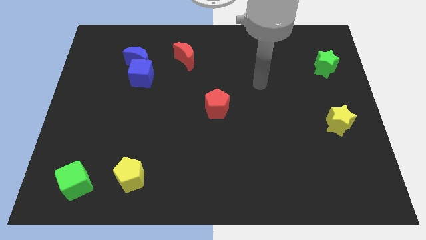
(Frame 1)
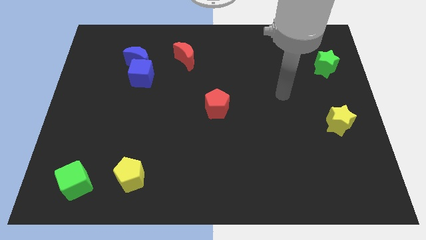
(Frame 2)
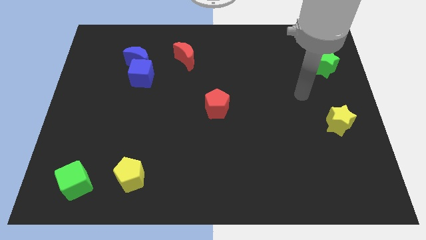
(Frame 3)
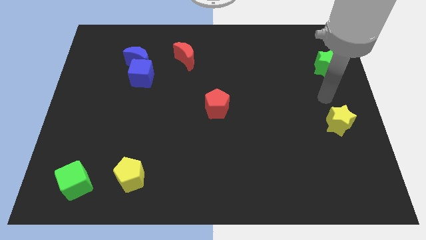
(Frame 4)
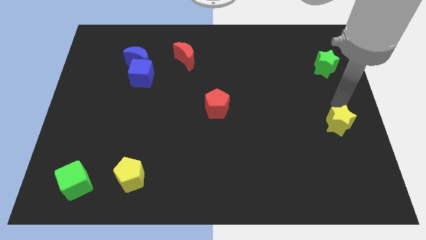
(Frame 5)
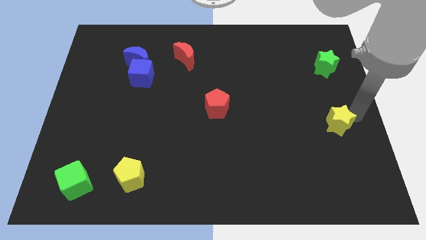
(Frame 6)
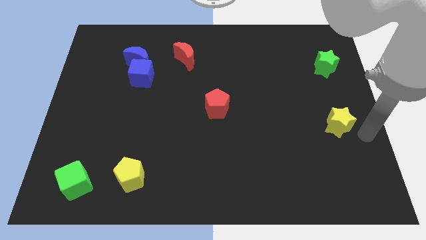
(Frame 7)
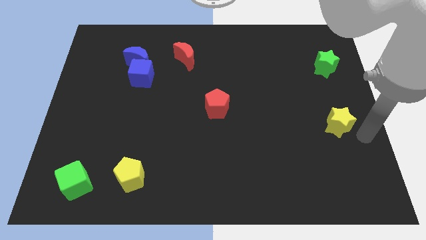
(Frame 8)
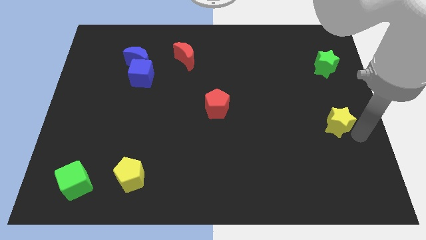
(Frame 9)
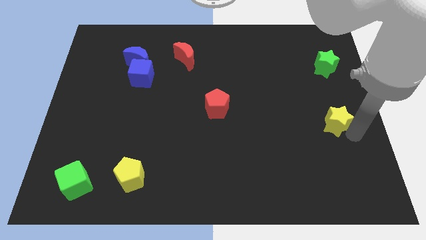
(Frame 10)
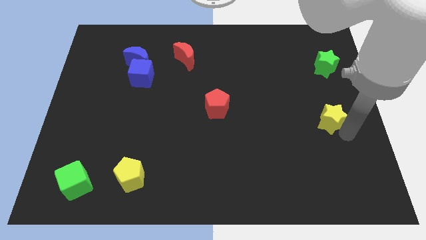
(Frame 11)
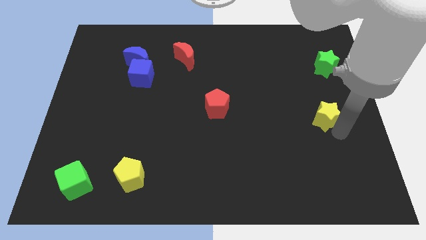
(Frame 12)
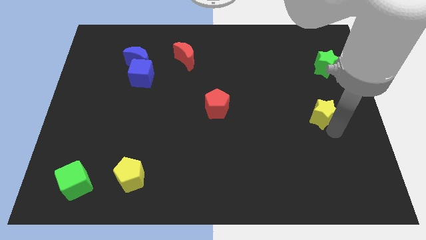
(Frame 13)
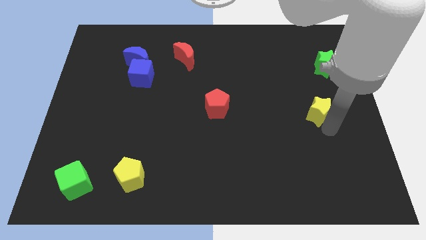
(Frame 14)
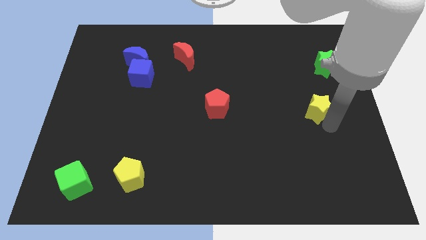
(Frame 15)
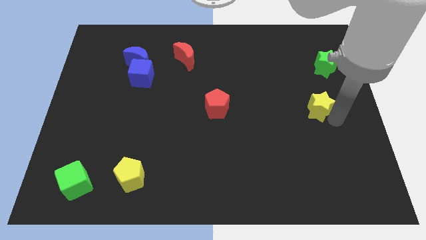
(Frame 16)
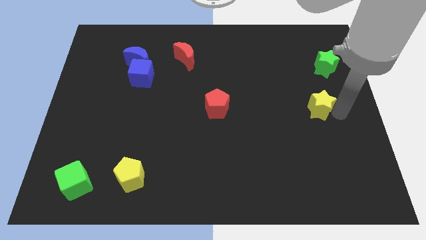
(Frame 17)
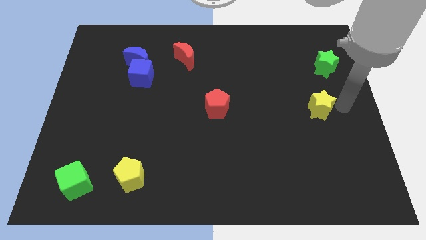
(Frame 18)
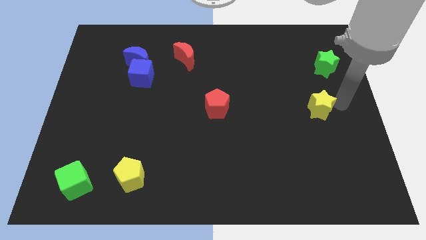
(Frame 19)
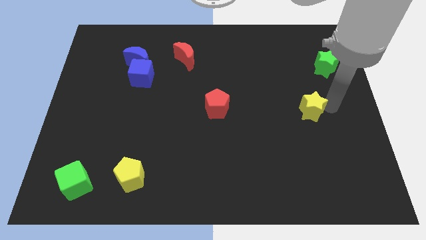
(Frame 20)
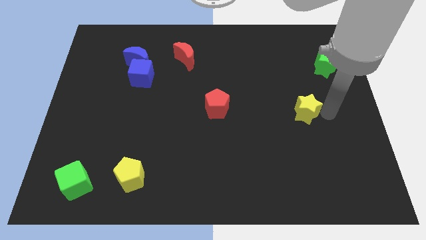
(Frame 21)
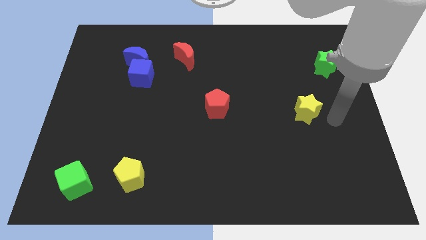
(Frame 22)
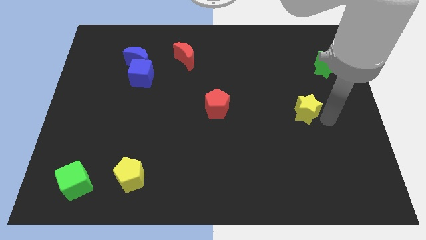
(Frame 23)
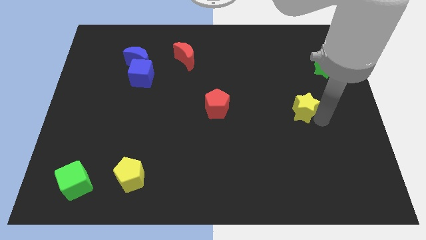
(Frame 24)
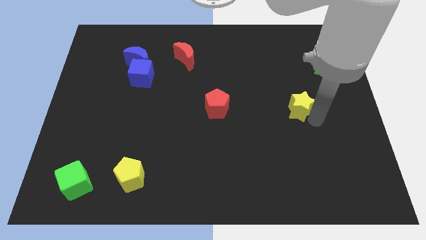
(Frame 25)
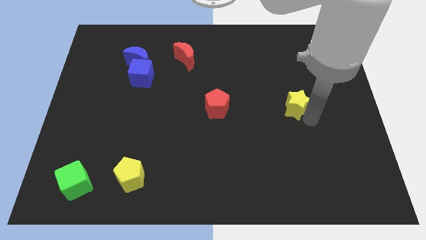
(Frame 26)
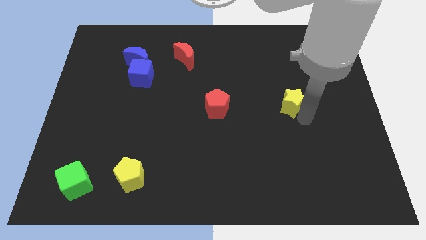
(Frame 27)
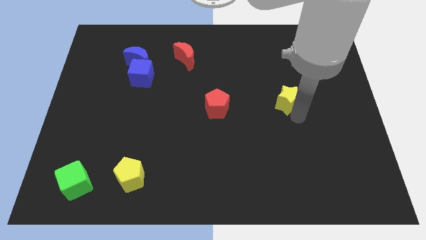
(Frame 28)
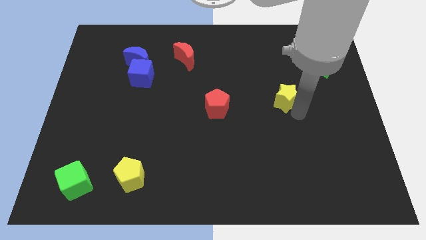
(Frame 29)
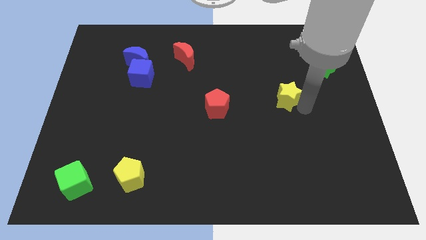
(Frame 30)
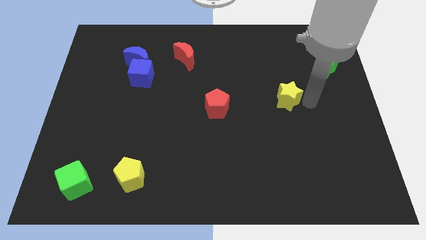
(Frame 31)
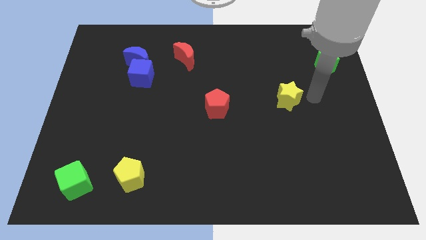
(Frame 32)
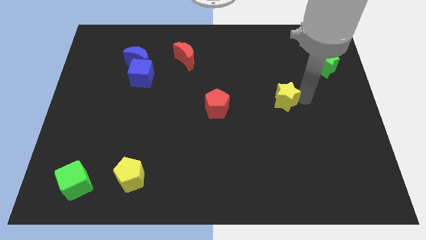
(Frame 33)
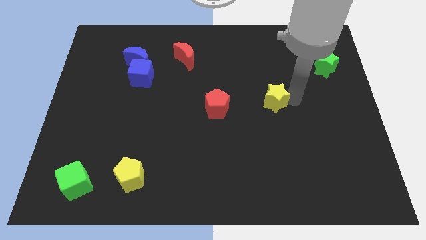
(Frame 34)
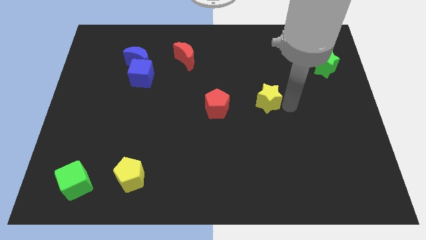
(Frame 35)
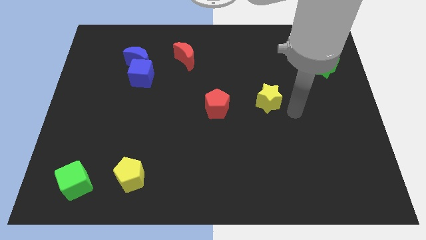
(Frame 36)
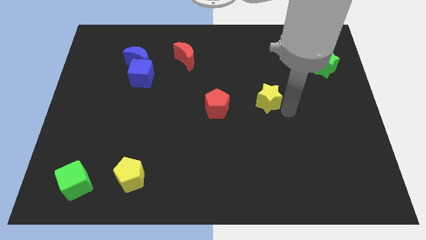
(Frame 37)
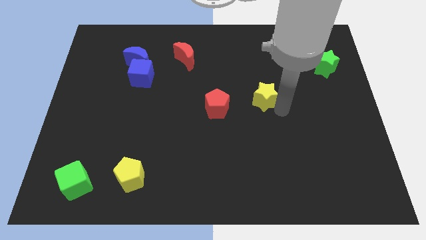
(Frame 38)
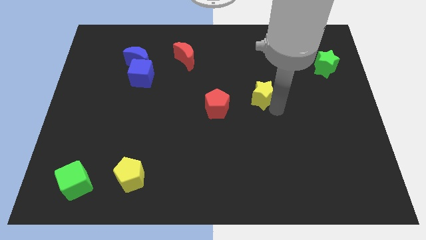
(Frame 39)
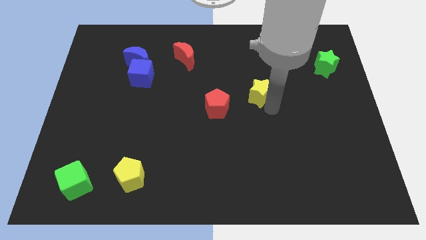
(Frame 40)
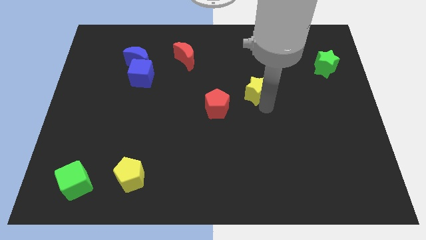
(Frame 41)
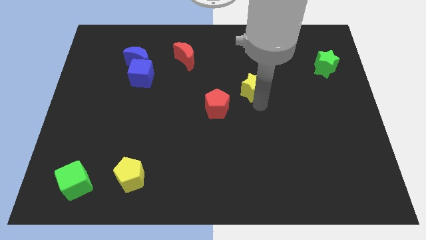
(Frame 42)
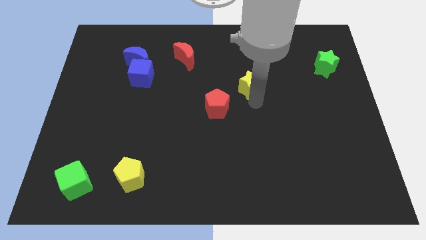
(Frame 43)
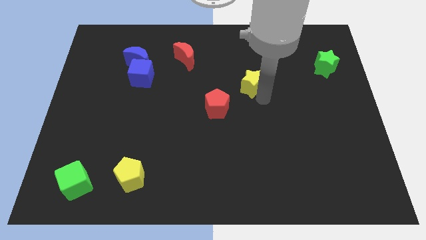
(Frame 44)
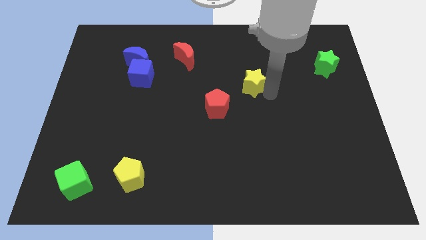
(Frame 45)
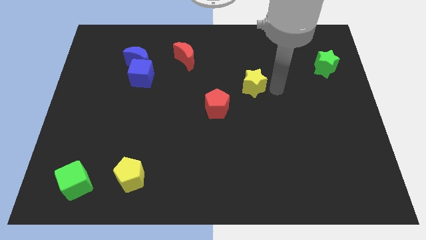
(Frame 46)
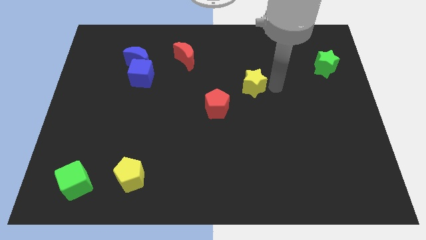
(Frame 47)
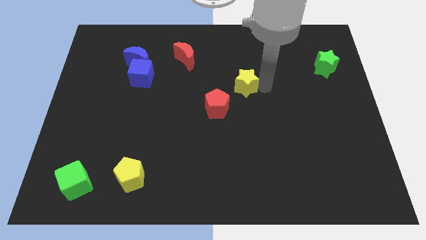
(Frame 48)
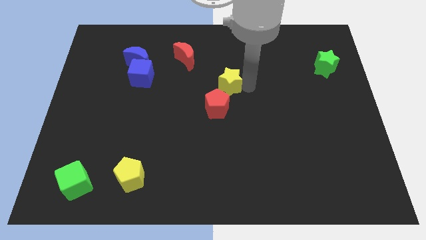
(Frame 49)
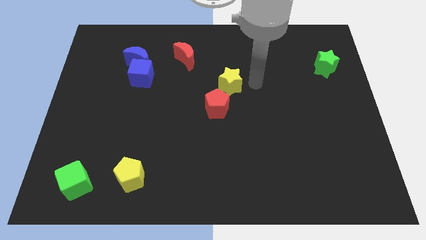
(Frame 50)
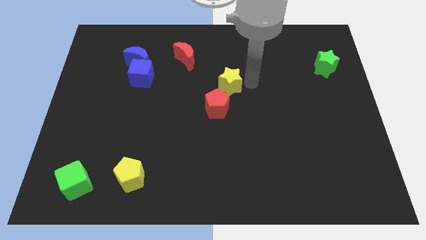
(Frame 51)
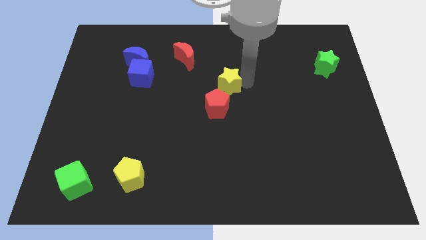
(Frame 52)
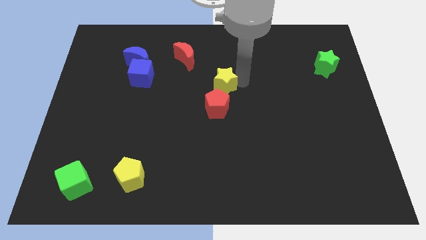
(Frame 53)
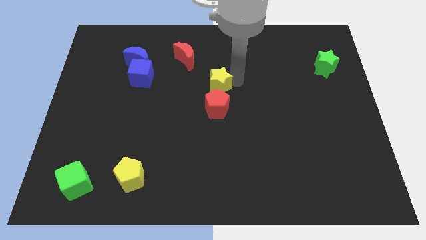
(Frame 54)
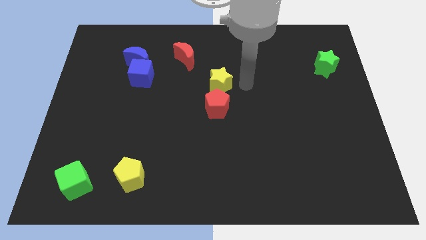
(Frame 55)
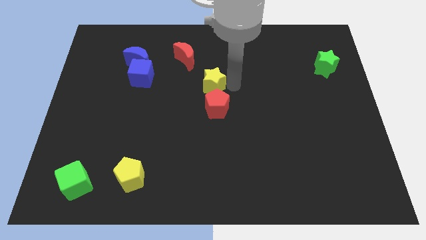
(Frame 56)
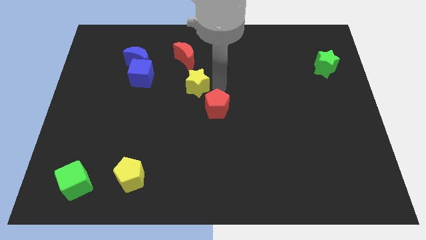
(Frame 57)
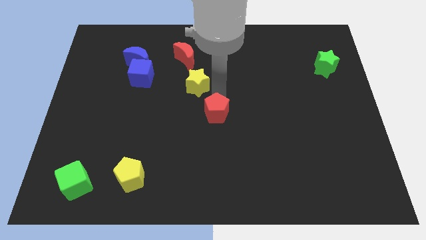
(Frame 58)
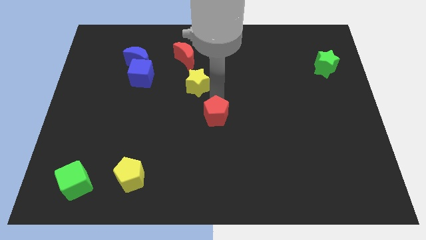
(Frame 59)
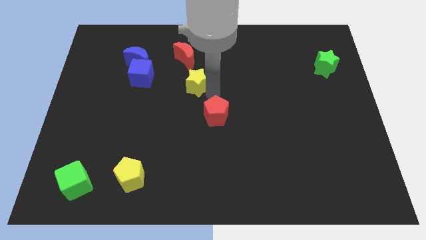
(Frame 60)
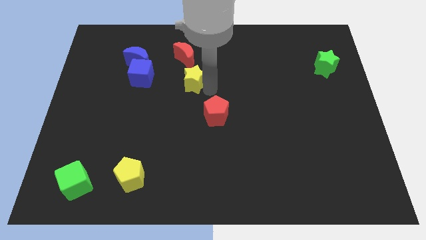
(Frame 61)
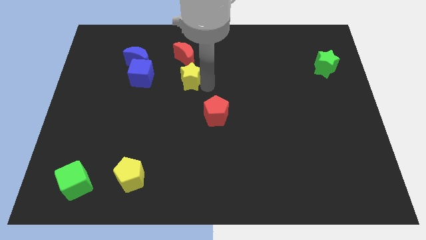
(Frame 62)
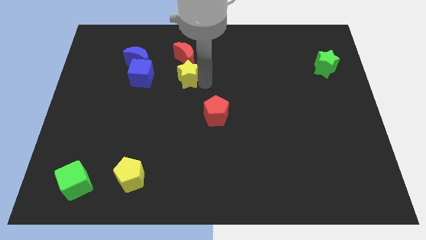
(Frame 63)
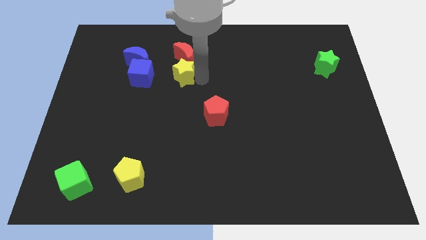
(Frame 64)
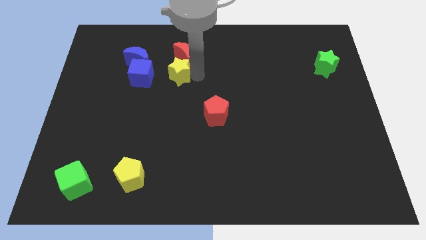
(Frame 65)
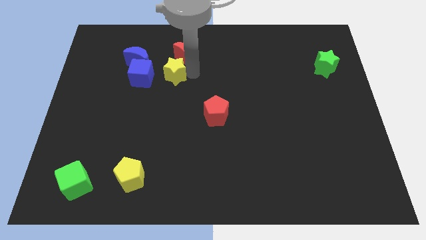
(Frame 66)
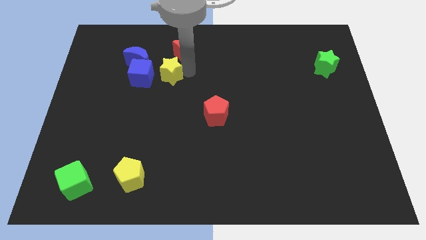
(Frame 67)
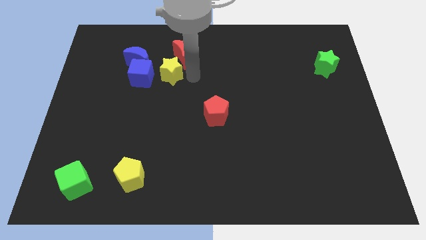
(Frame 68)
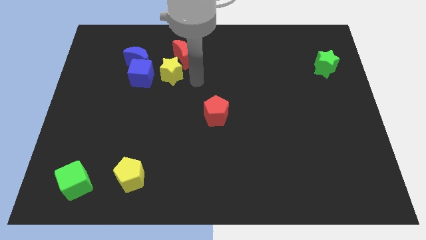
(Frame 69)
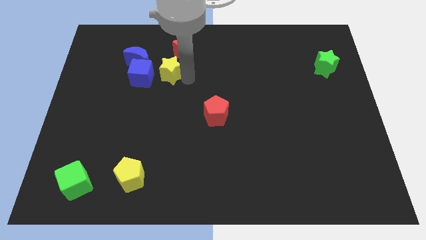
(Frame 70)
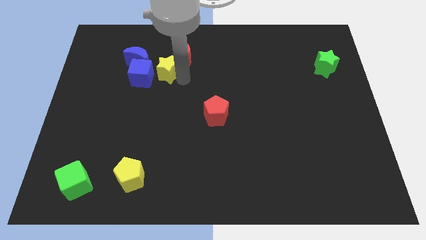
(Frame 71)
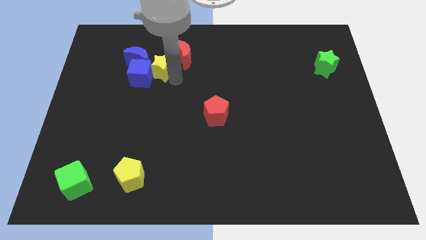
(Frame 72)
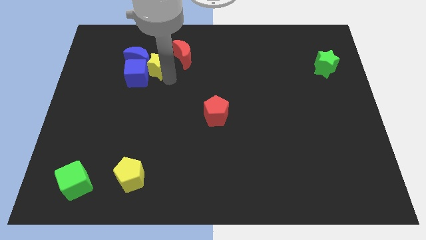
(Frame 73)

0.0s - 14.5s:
move the yellow star to the blue moon

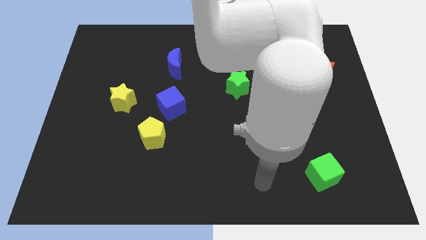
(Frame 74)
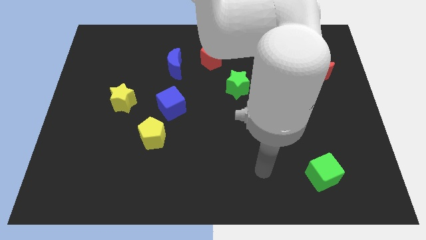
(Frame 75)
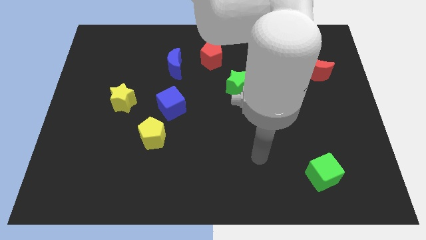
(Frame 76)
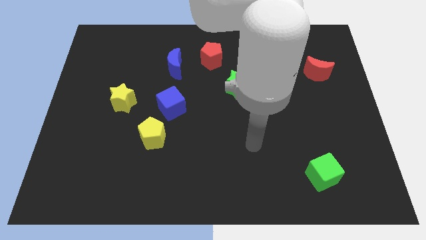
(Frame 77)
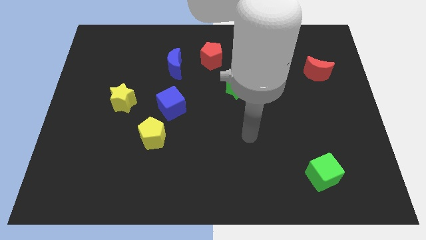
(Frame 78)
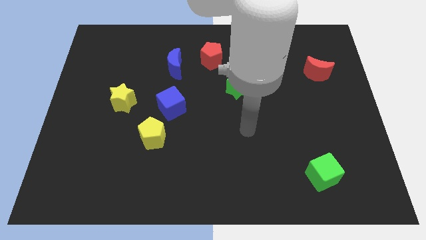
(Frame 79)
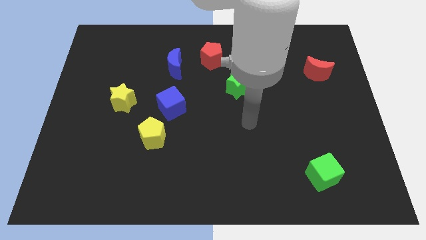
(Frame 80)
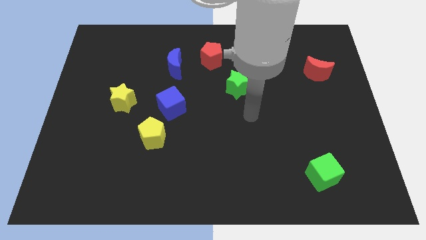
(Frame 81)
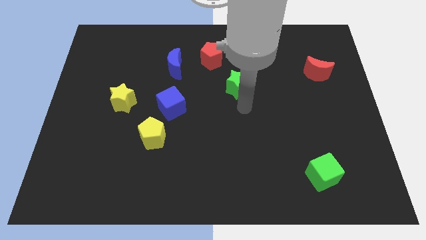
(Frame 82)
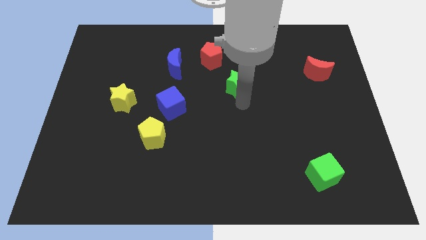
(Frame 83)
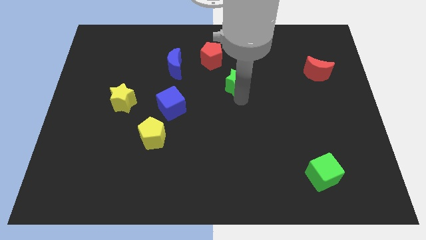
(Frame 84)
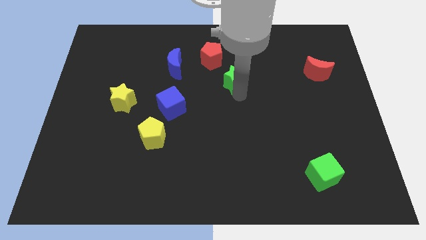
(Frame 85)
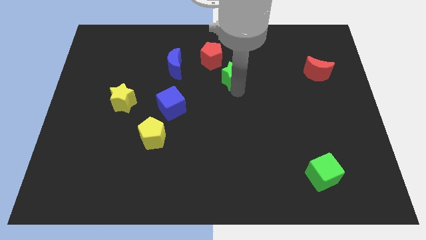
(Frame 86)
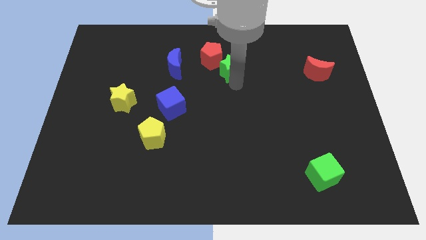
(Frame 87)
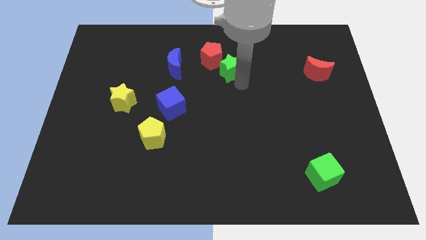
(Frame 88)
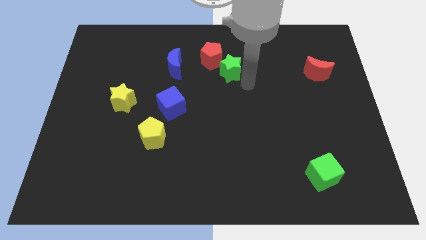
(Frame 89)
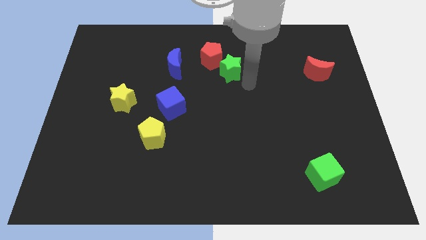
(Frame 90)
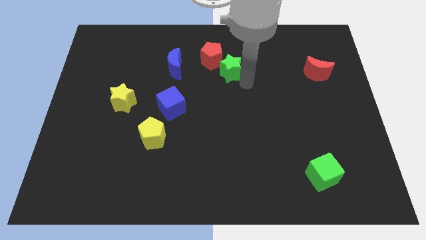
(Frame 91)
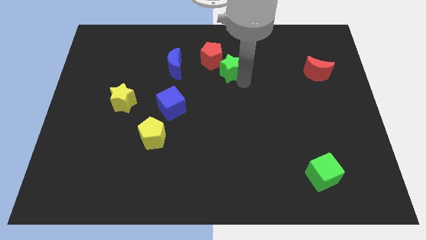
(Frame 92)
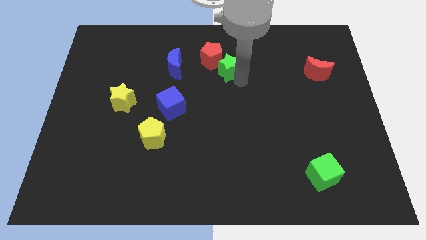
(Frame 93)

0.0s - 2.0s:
push the green star to the red pentagon
